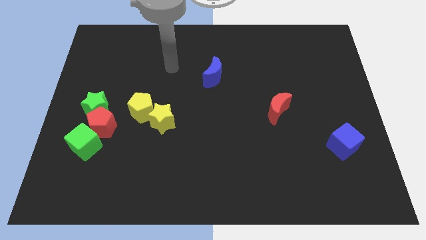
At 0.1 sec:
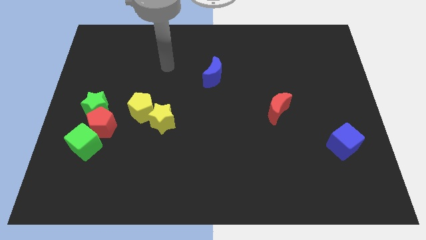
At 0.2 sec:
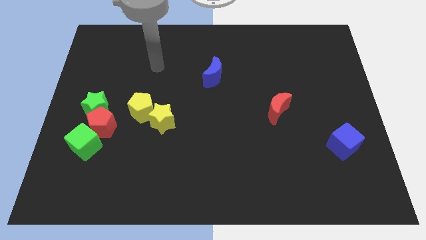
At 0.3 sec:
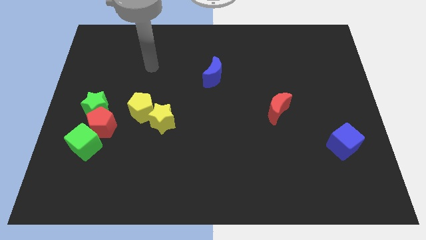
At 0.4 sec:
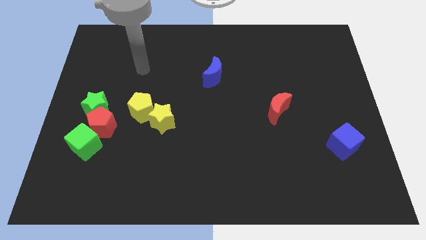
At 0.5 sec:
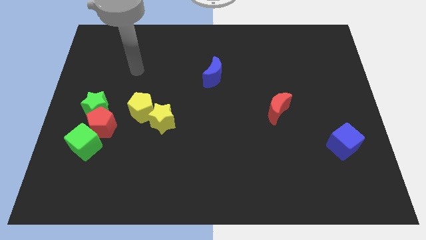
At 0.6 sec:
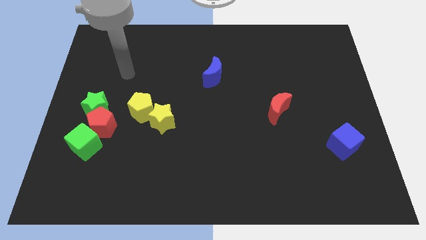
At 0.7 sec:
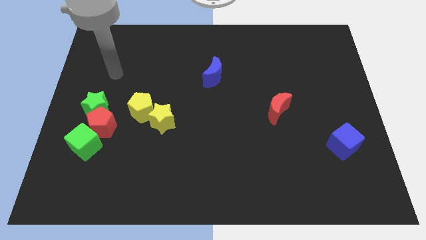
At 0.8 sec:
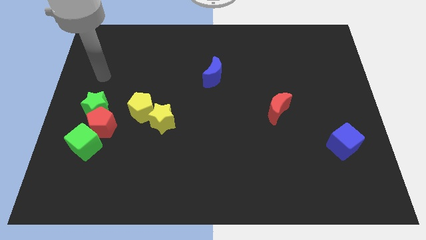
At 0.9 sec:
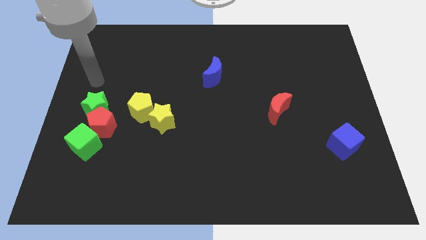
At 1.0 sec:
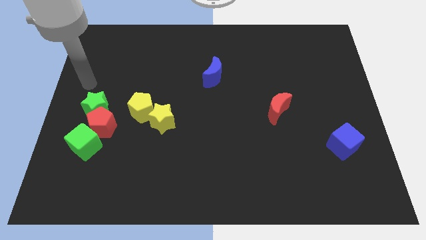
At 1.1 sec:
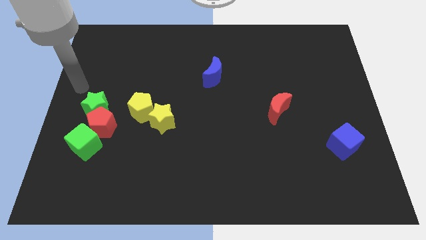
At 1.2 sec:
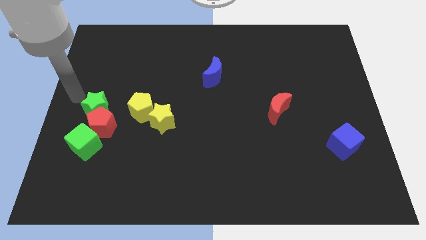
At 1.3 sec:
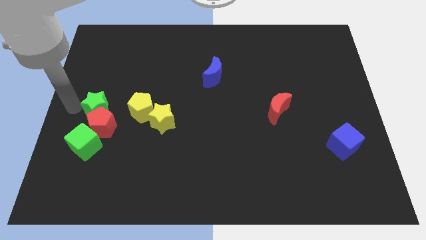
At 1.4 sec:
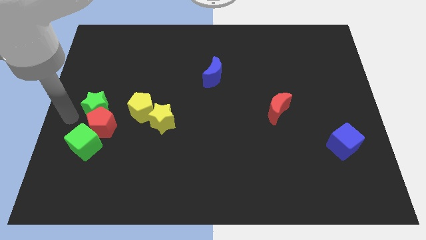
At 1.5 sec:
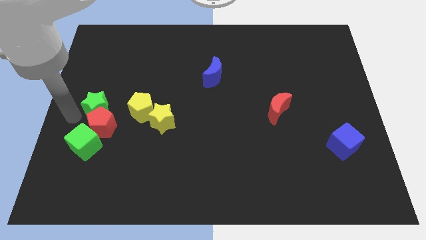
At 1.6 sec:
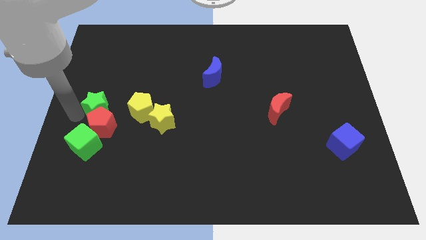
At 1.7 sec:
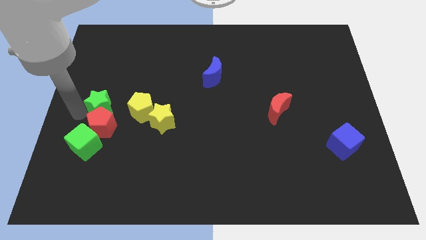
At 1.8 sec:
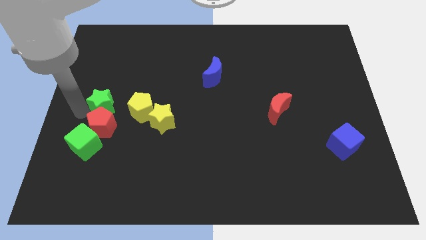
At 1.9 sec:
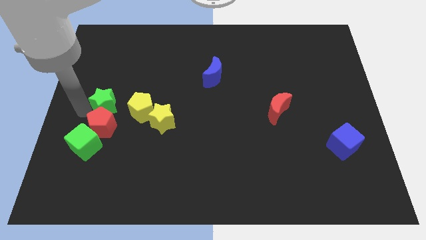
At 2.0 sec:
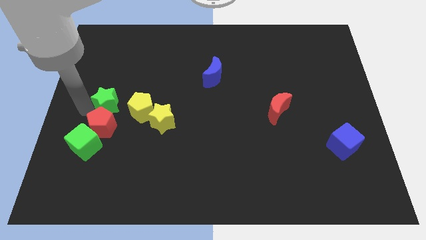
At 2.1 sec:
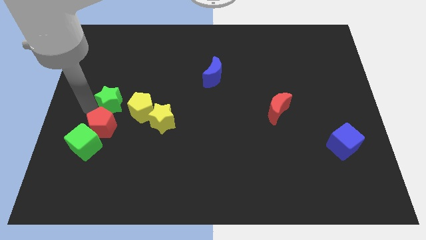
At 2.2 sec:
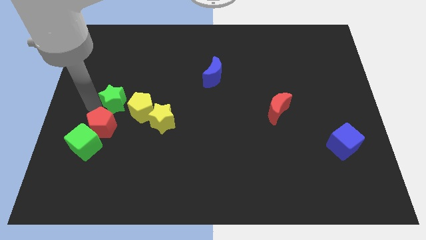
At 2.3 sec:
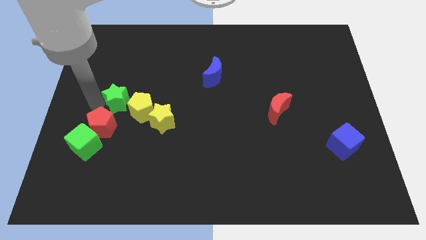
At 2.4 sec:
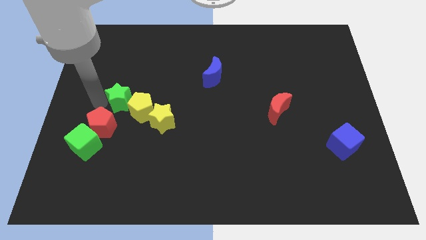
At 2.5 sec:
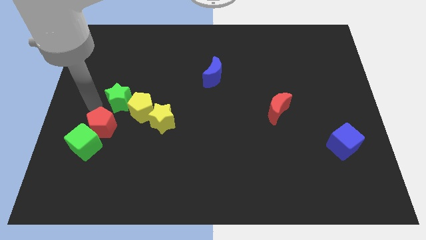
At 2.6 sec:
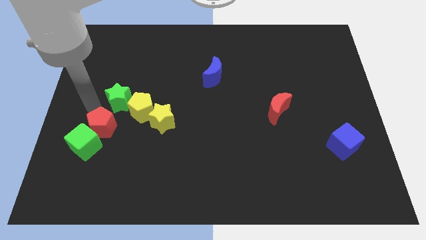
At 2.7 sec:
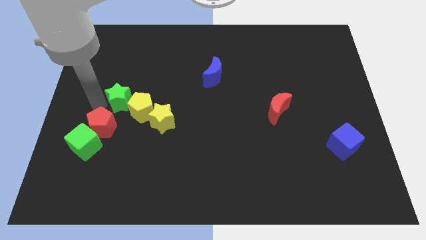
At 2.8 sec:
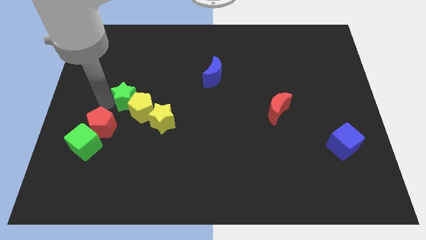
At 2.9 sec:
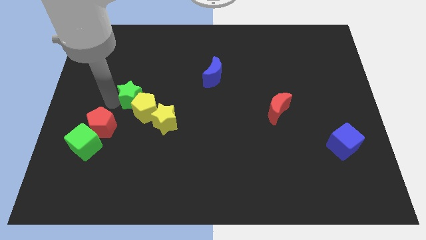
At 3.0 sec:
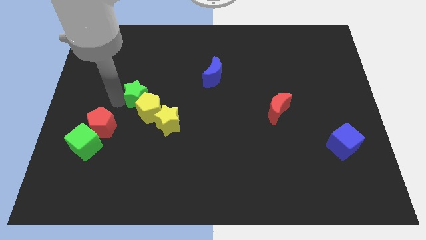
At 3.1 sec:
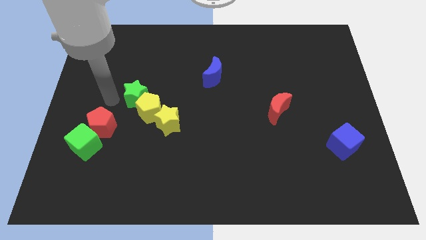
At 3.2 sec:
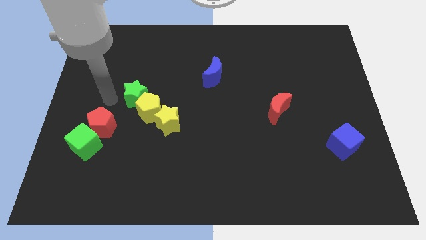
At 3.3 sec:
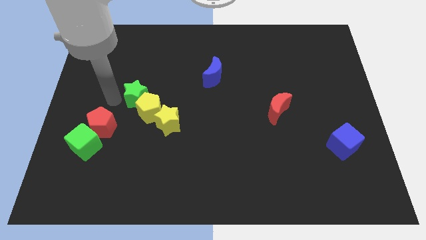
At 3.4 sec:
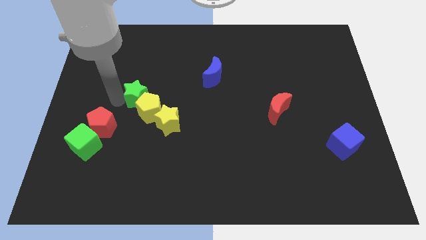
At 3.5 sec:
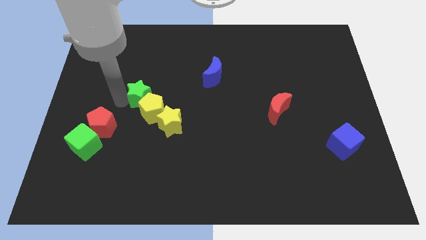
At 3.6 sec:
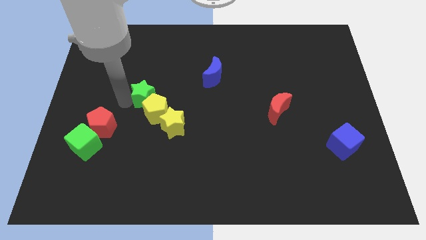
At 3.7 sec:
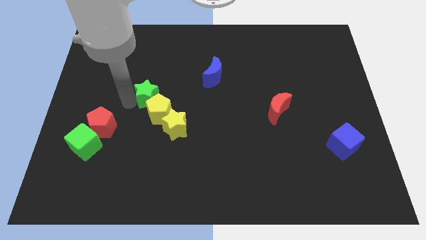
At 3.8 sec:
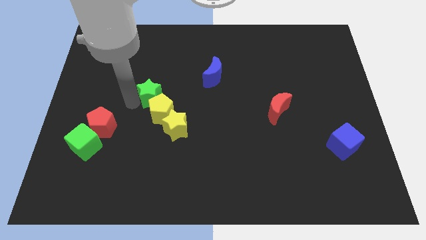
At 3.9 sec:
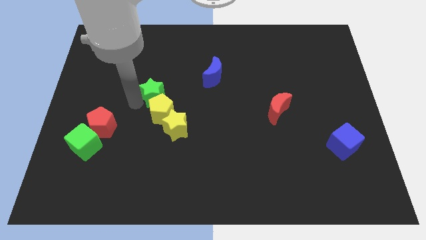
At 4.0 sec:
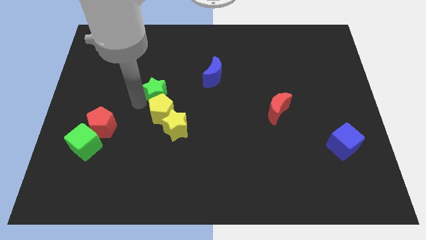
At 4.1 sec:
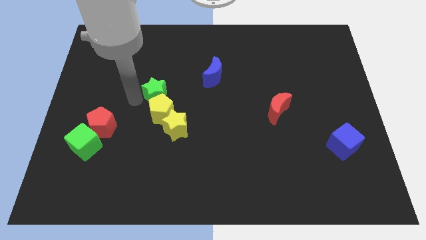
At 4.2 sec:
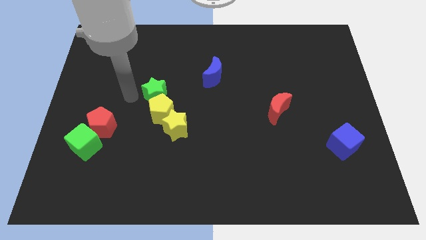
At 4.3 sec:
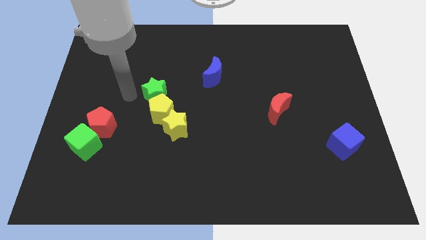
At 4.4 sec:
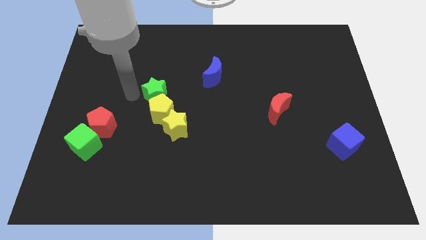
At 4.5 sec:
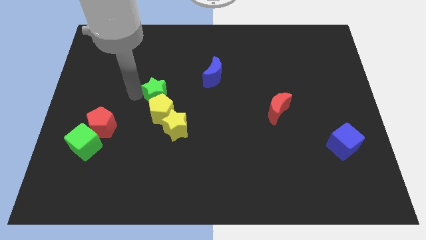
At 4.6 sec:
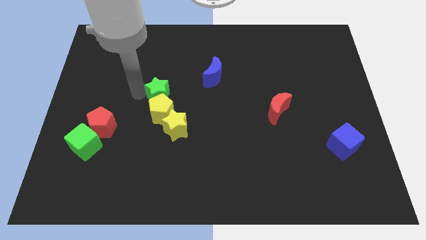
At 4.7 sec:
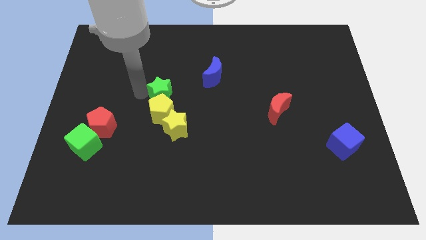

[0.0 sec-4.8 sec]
put the green star to the center

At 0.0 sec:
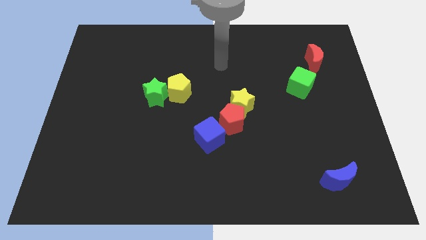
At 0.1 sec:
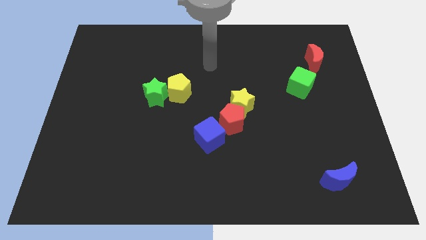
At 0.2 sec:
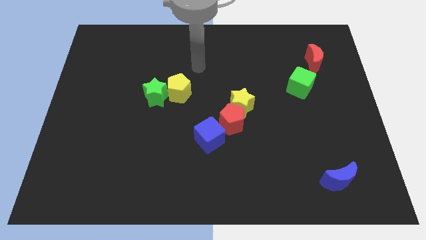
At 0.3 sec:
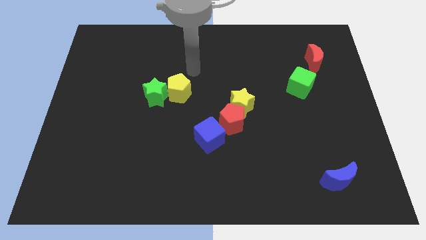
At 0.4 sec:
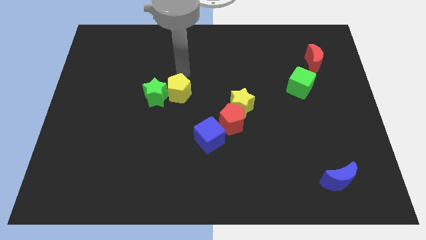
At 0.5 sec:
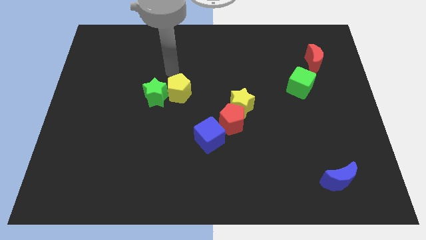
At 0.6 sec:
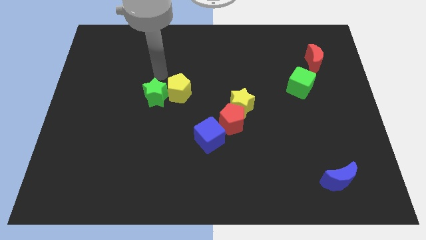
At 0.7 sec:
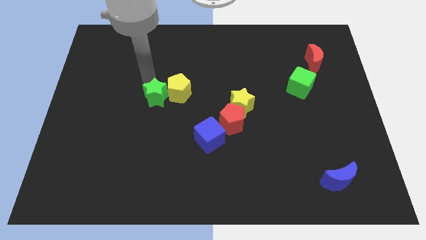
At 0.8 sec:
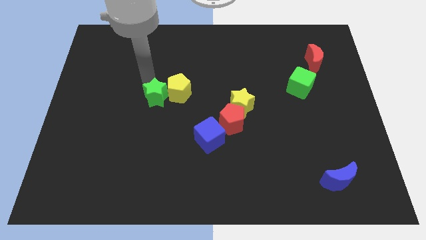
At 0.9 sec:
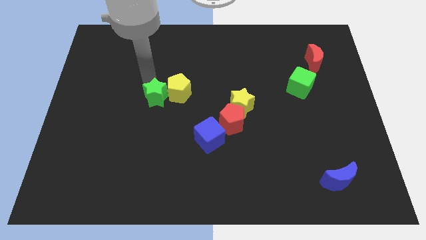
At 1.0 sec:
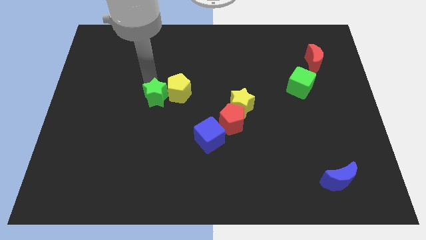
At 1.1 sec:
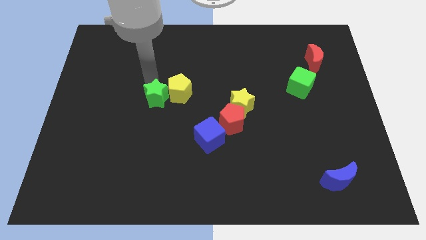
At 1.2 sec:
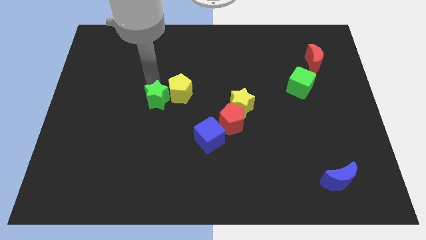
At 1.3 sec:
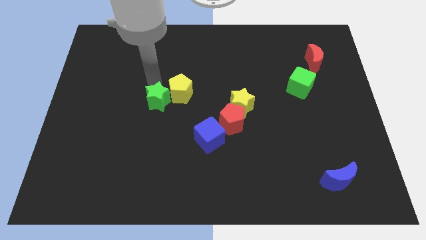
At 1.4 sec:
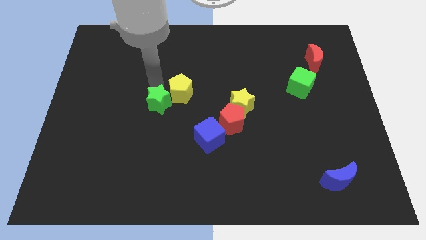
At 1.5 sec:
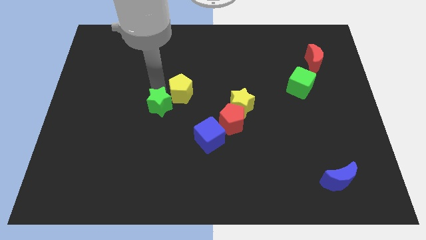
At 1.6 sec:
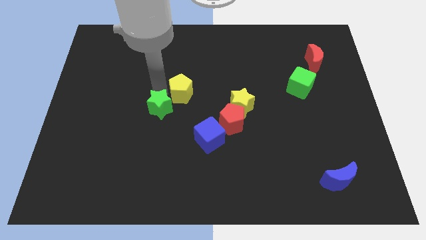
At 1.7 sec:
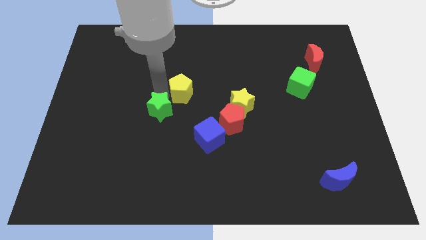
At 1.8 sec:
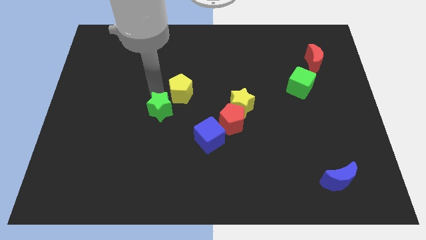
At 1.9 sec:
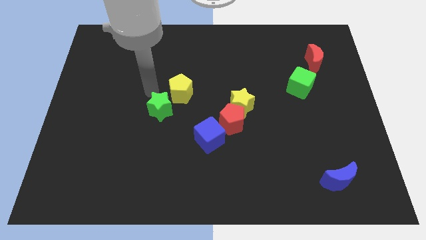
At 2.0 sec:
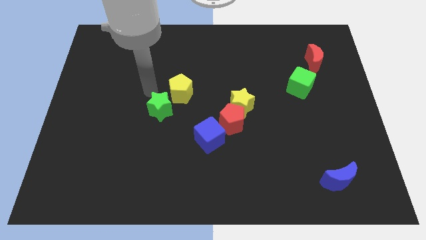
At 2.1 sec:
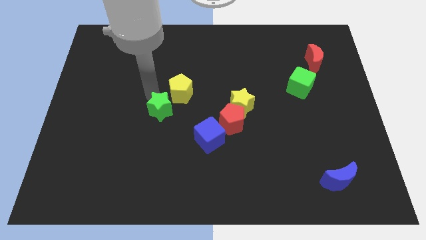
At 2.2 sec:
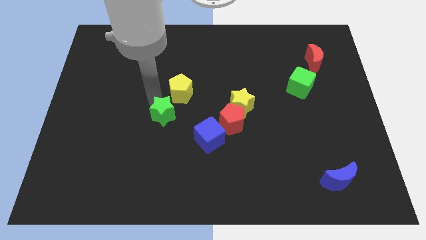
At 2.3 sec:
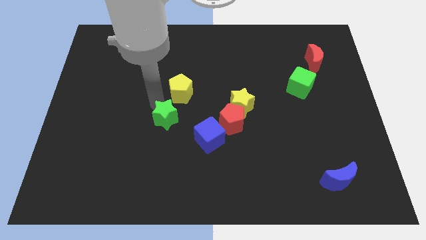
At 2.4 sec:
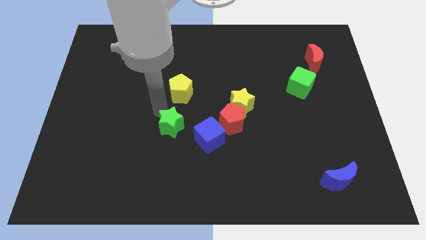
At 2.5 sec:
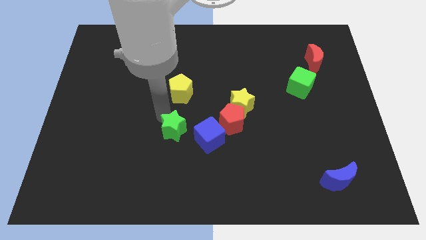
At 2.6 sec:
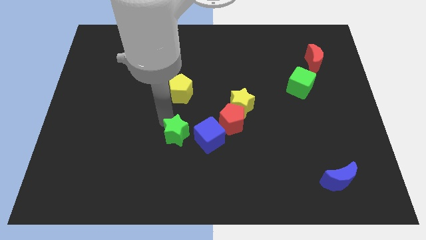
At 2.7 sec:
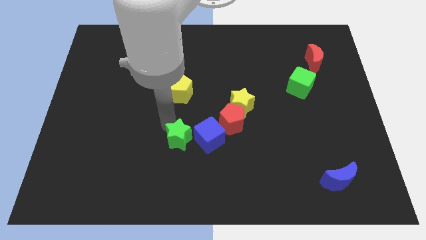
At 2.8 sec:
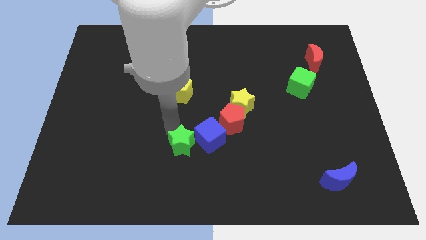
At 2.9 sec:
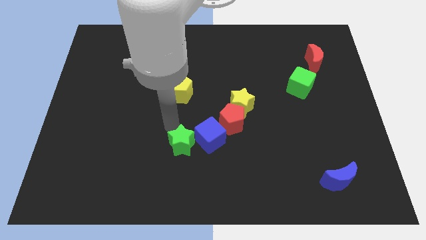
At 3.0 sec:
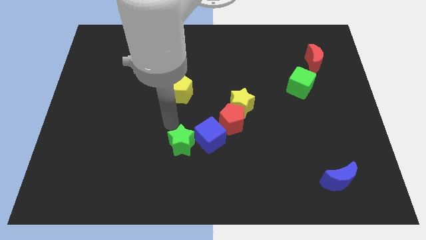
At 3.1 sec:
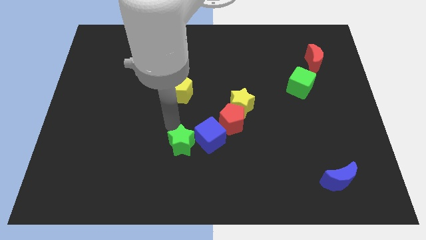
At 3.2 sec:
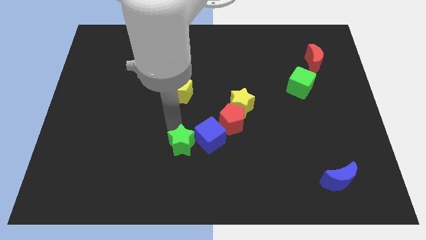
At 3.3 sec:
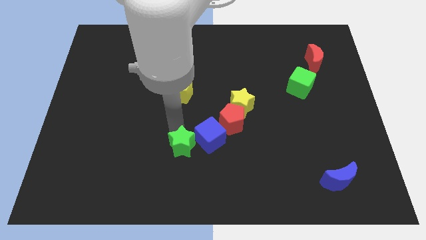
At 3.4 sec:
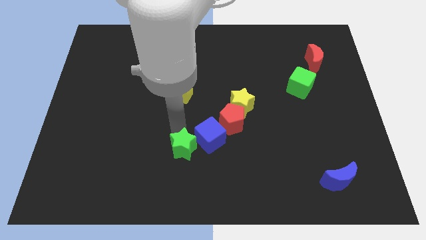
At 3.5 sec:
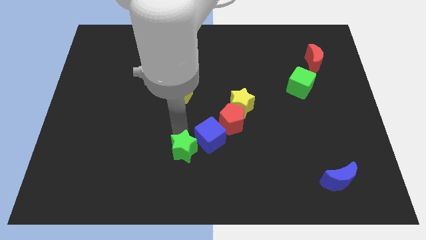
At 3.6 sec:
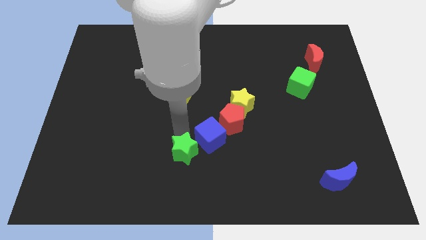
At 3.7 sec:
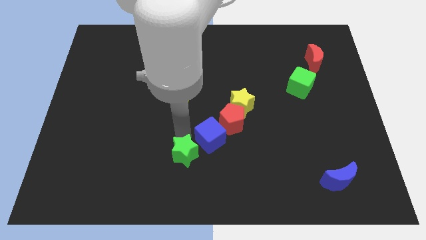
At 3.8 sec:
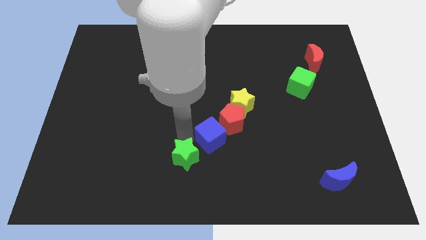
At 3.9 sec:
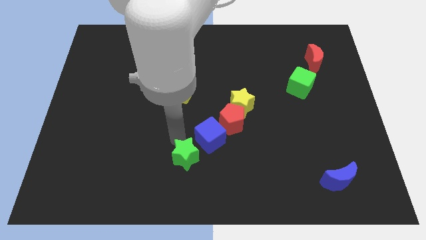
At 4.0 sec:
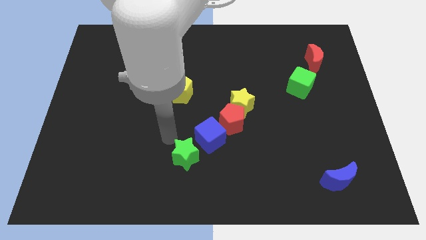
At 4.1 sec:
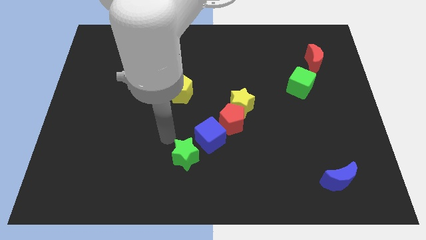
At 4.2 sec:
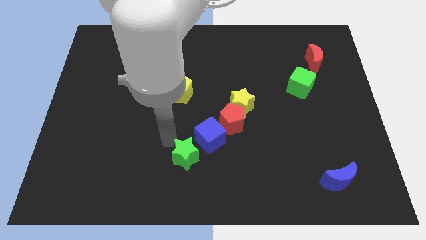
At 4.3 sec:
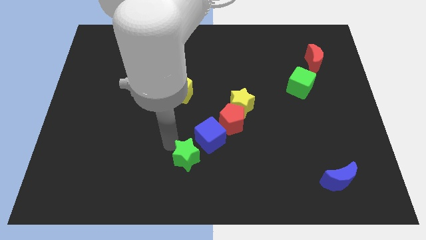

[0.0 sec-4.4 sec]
put the green star to the bottom side
